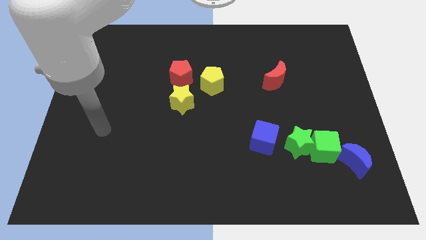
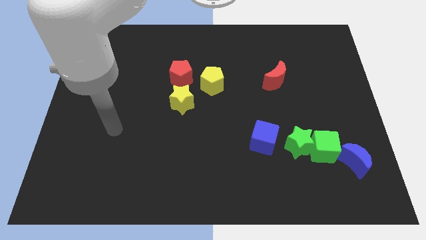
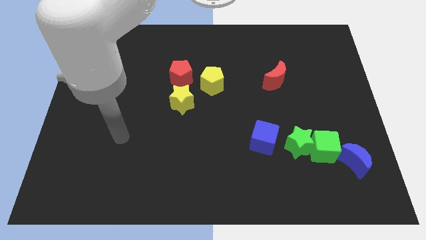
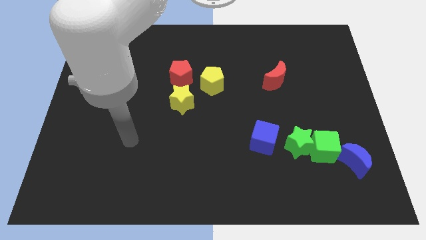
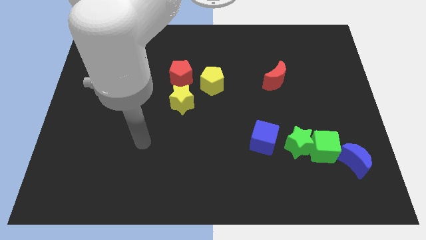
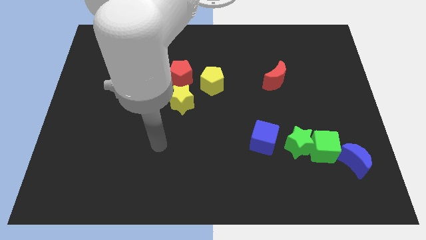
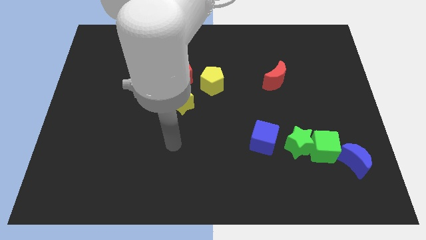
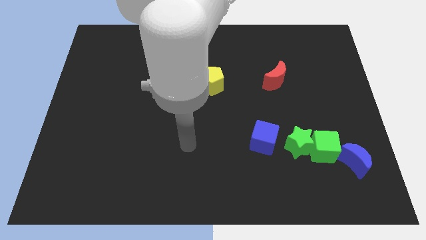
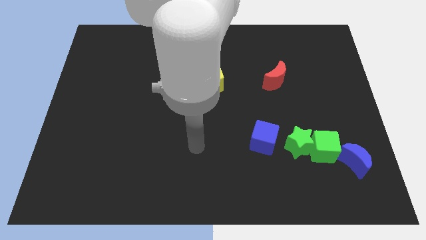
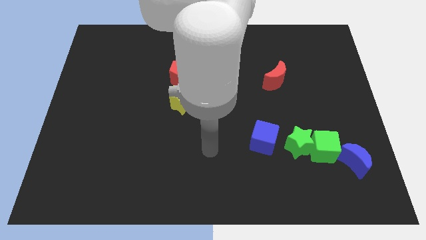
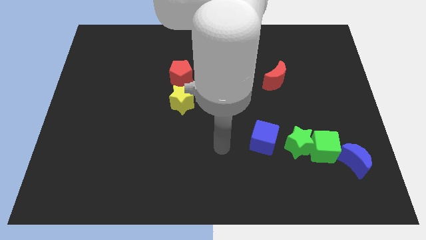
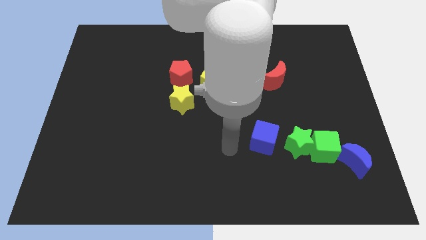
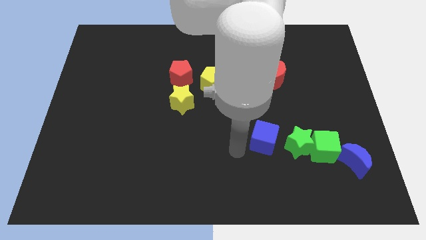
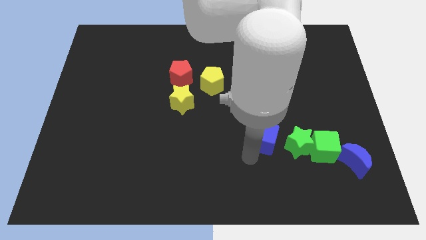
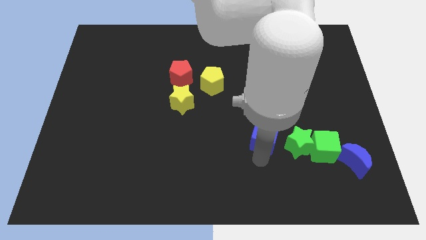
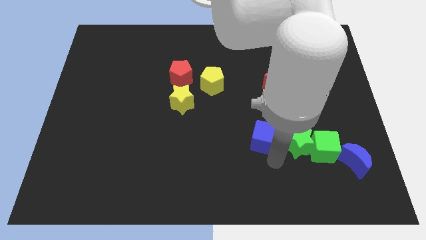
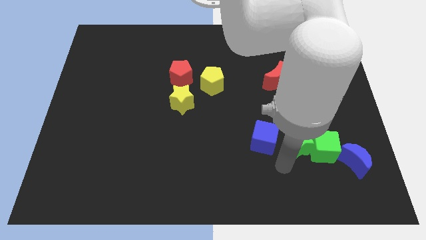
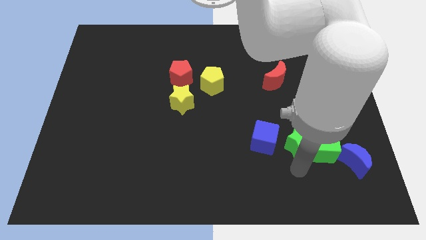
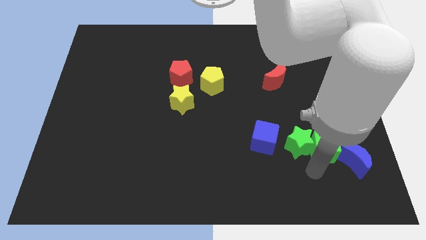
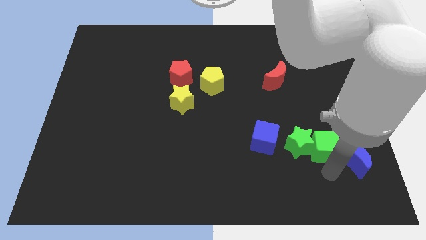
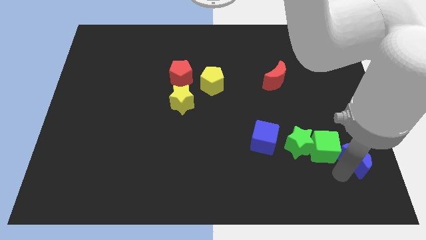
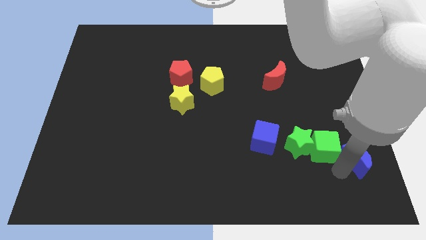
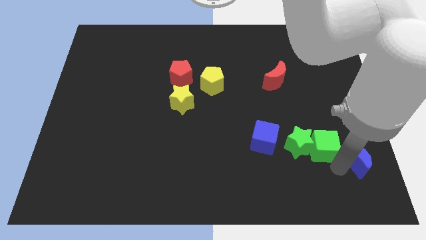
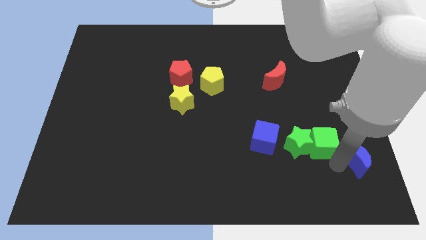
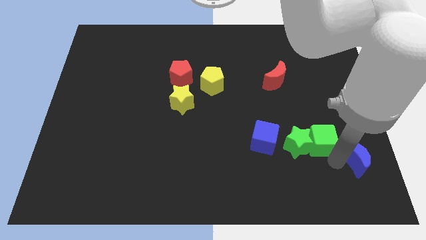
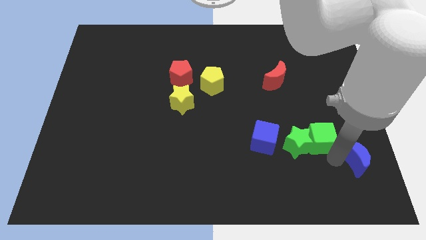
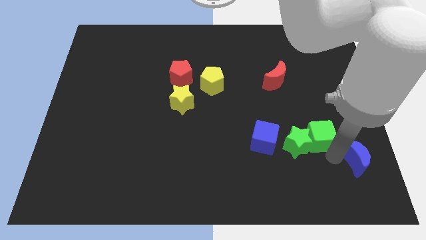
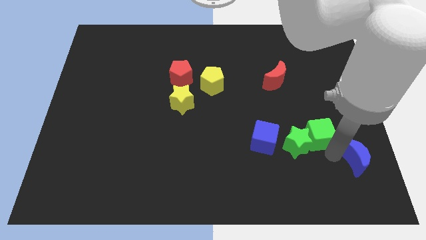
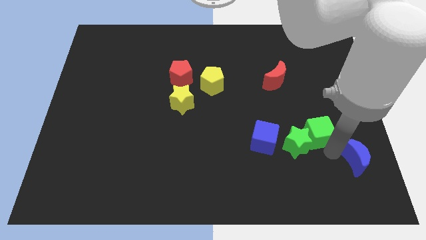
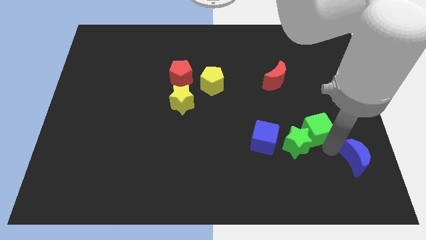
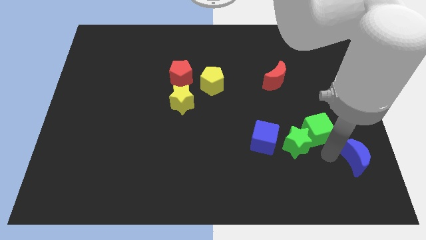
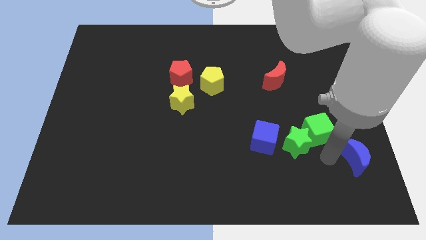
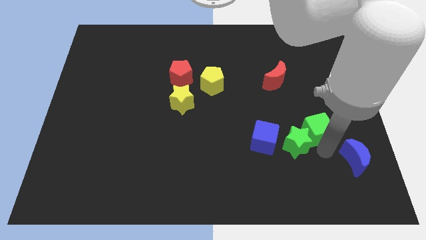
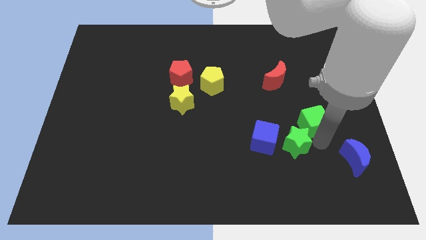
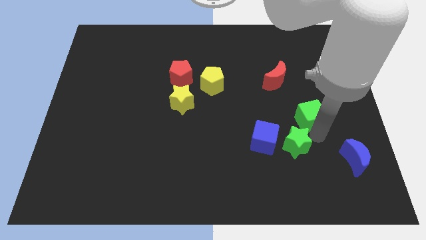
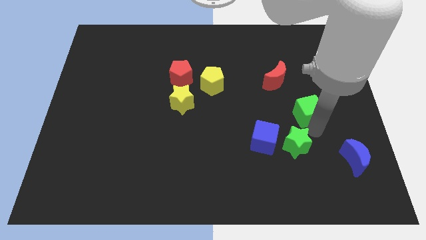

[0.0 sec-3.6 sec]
pull the green cube apart from the green star and blue moon

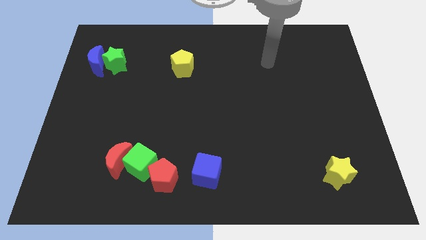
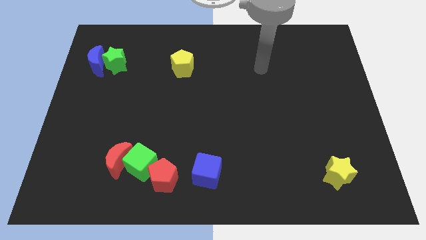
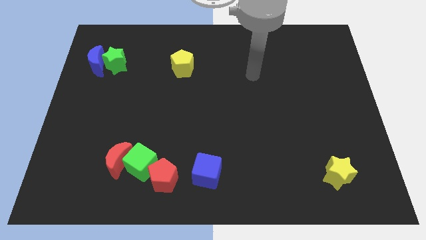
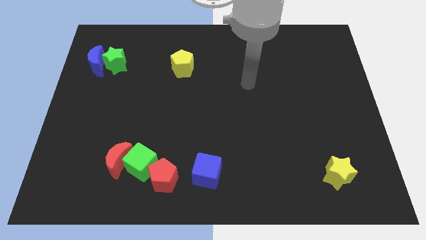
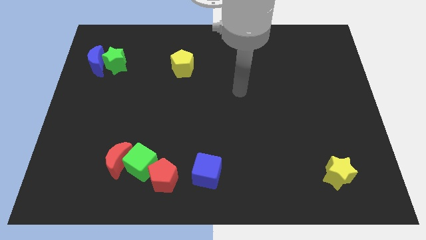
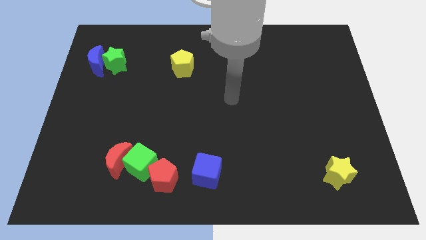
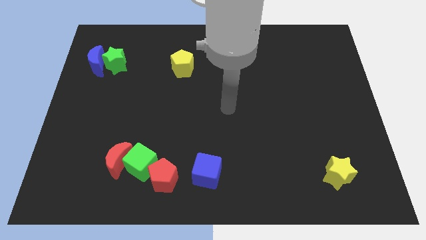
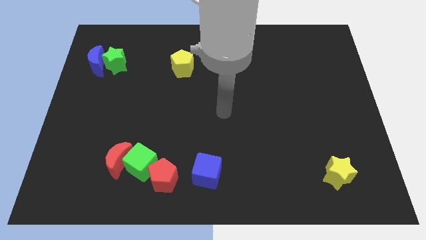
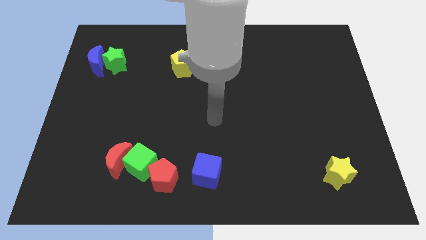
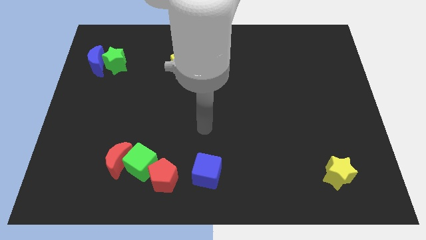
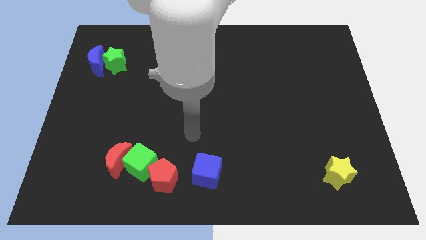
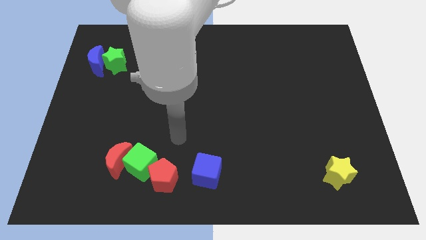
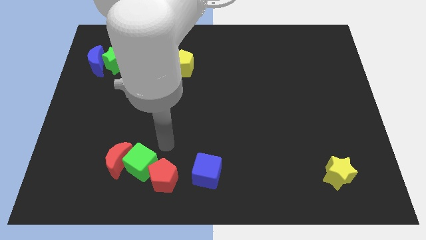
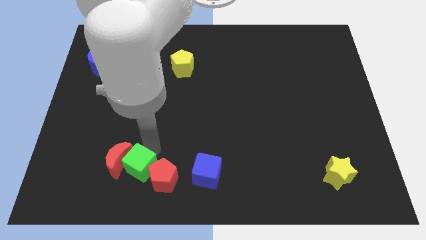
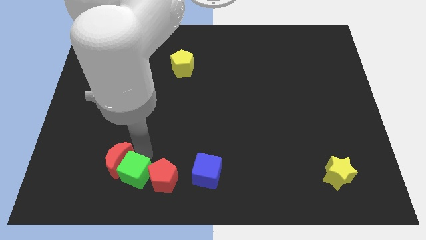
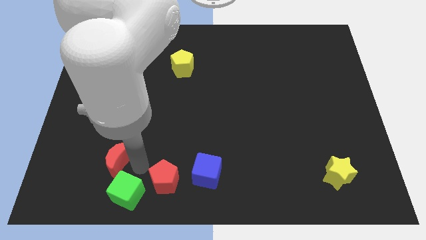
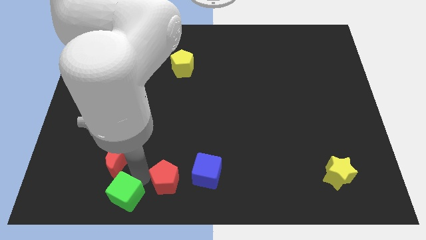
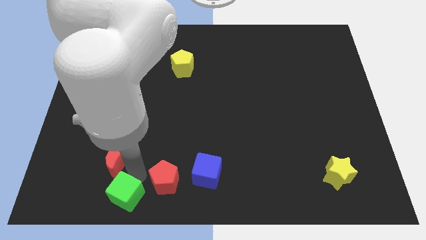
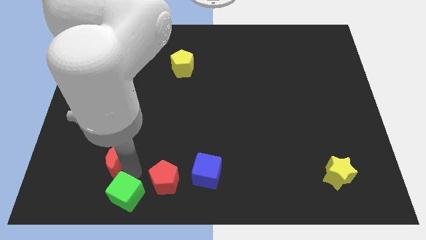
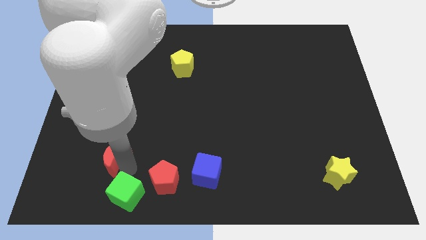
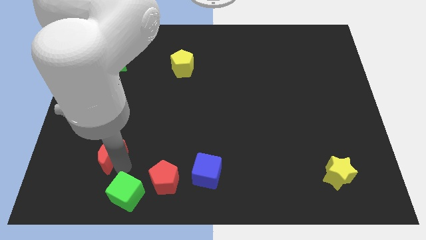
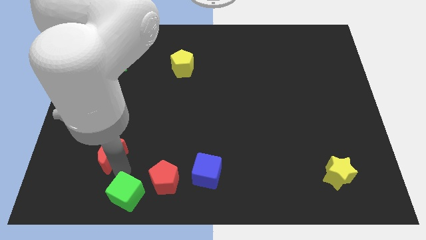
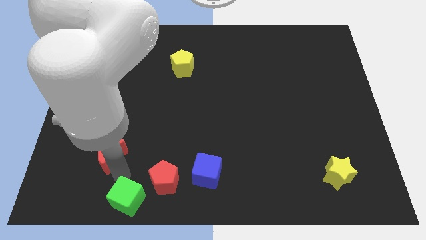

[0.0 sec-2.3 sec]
pull the red moon apart from the green cube

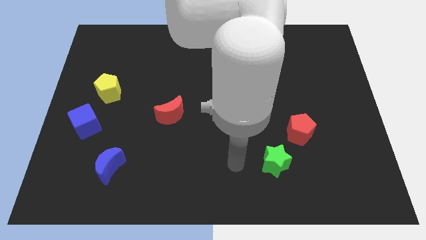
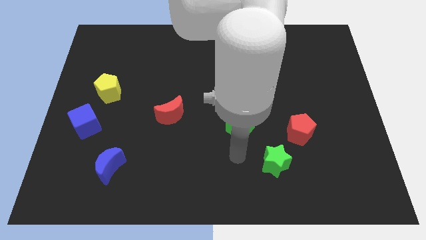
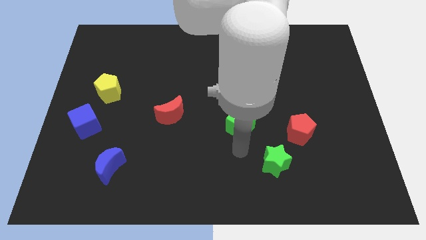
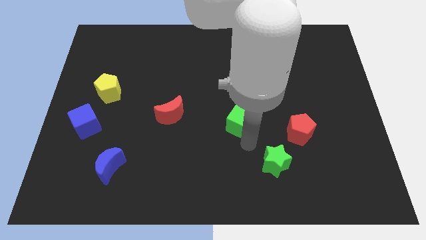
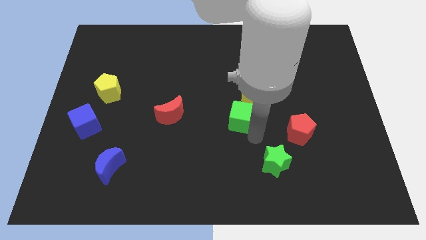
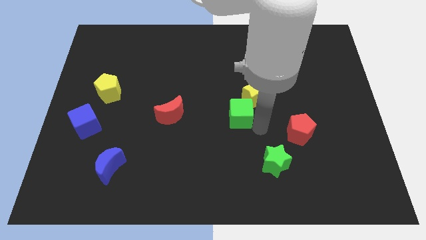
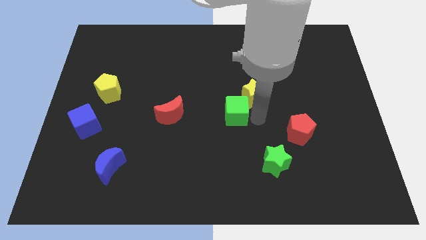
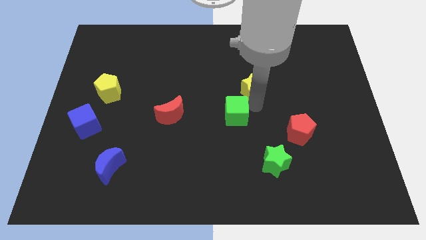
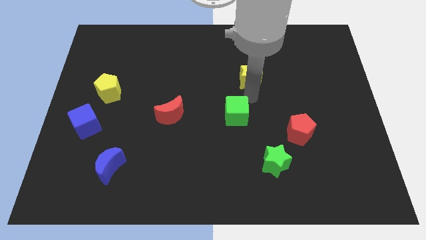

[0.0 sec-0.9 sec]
move the green cube away from the yellow star

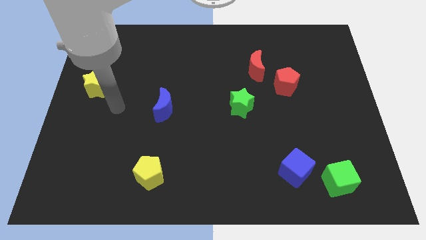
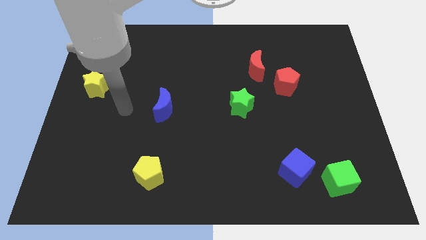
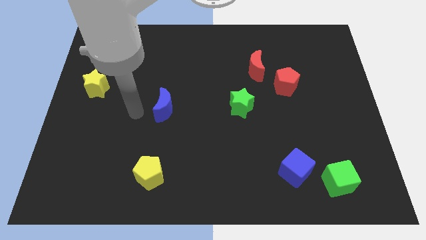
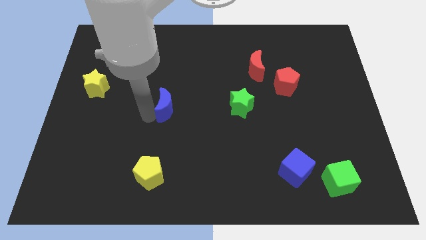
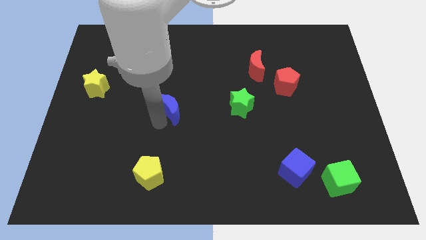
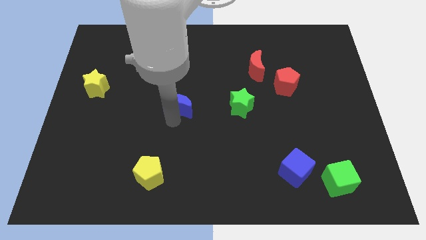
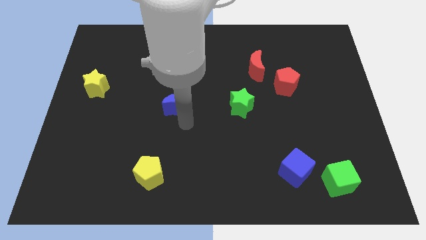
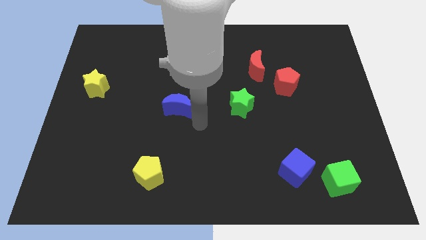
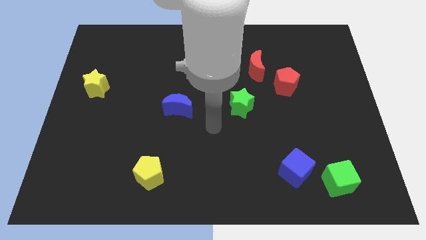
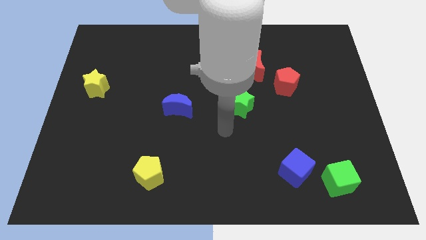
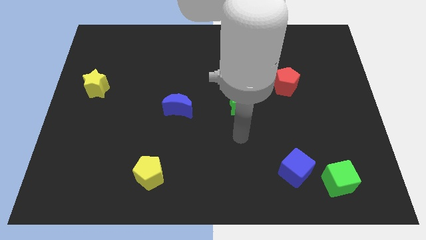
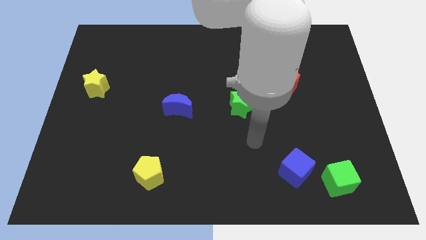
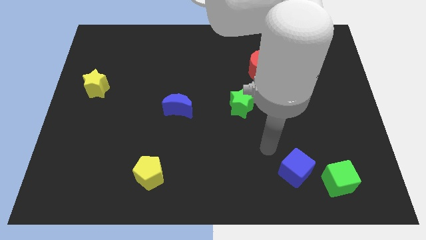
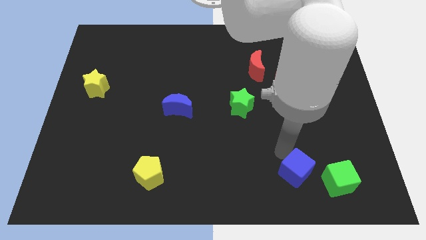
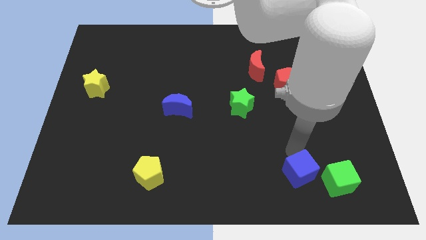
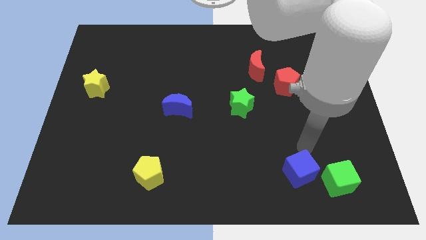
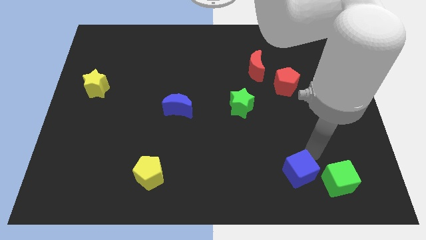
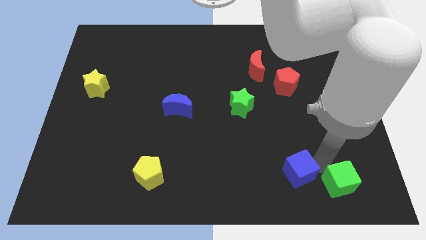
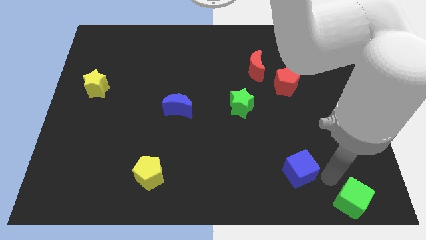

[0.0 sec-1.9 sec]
separate the blue cube from the green cube

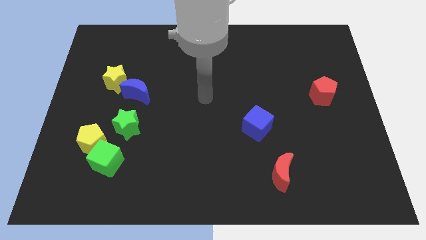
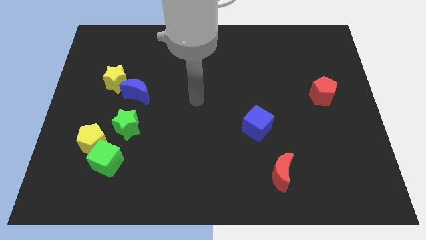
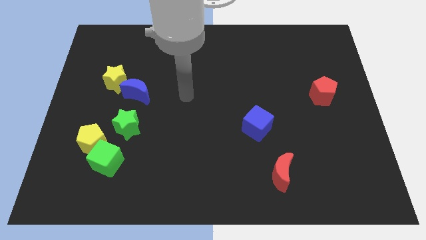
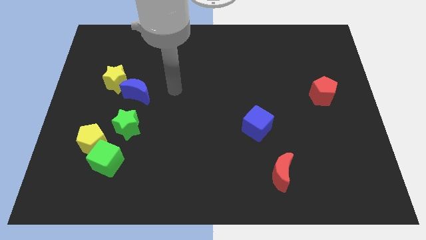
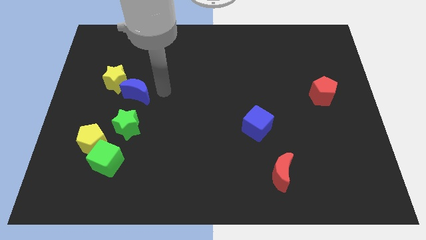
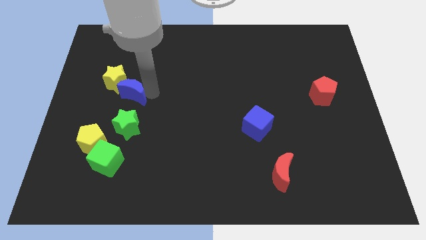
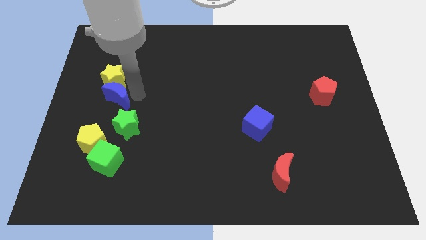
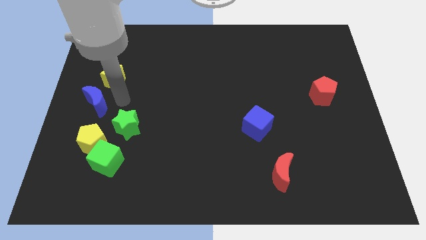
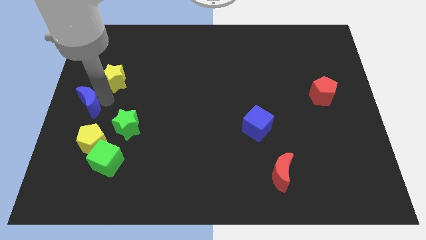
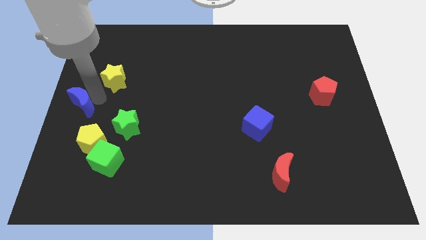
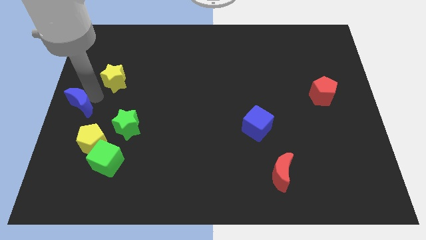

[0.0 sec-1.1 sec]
separate the yellow star from the blue moon
